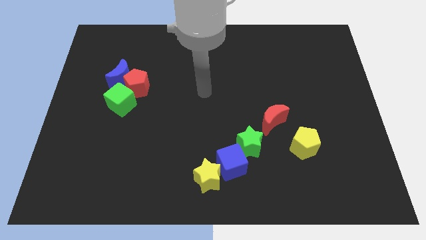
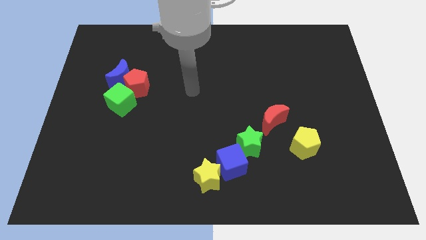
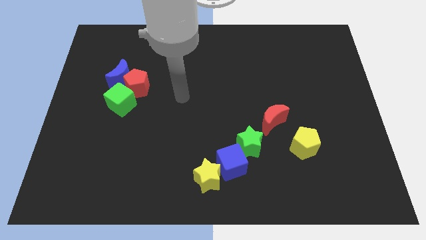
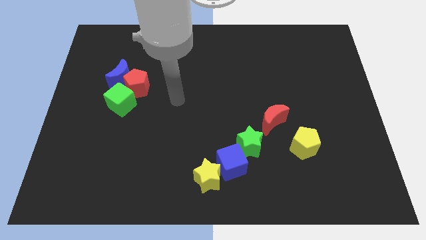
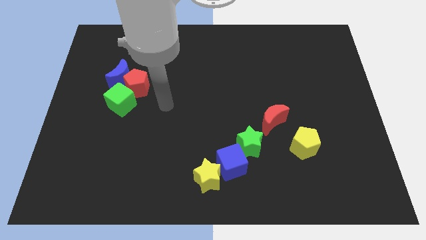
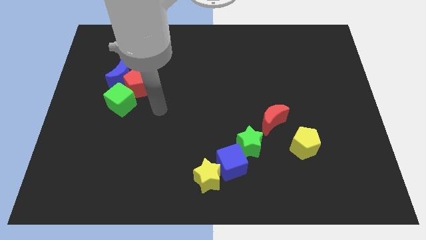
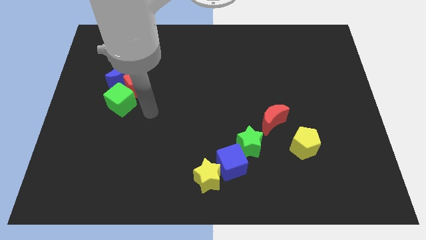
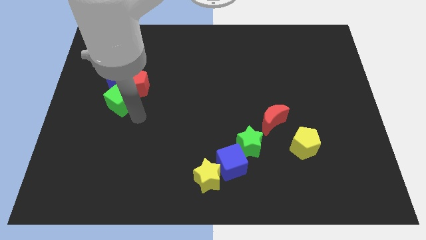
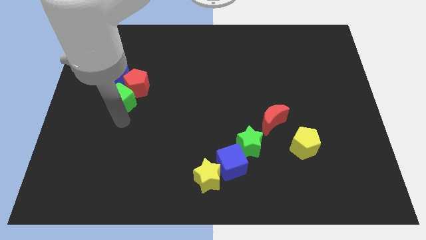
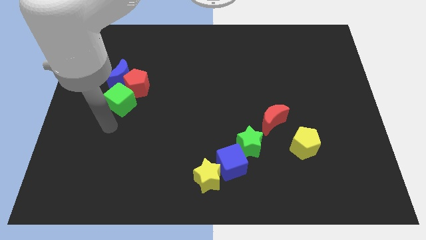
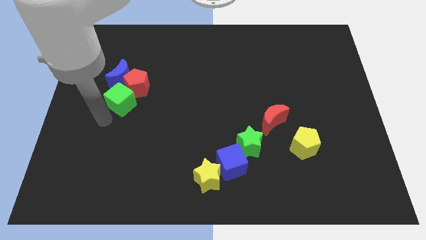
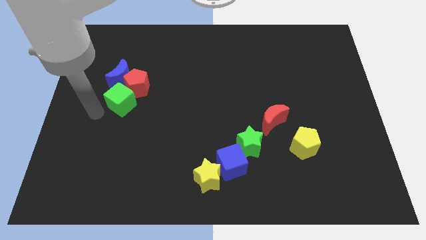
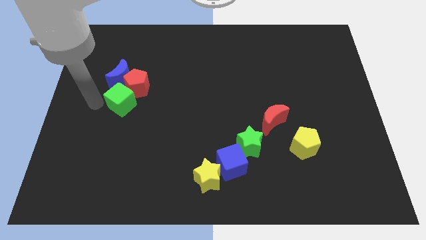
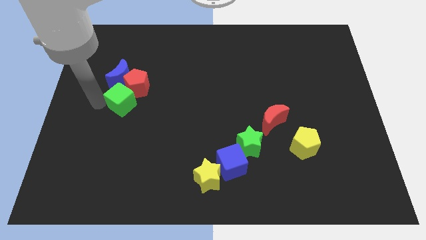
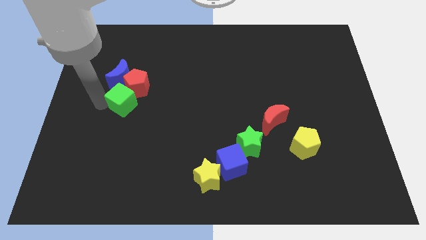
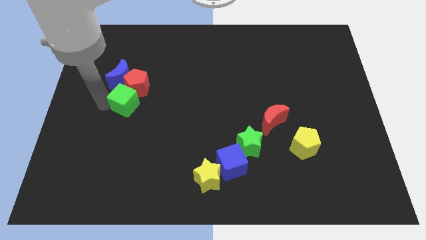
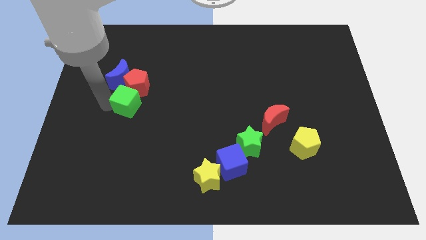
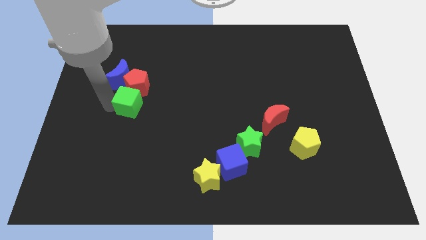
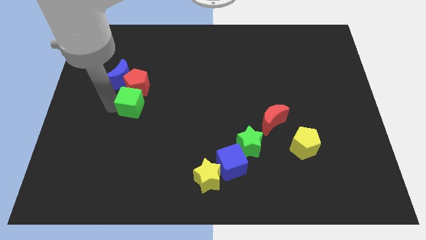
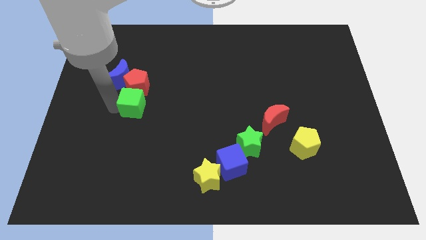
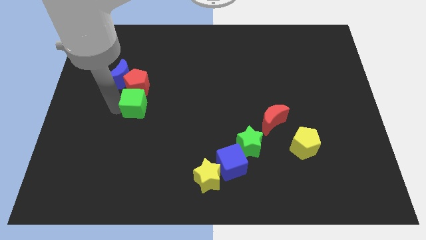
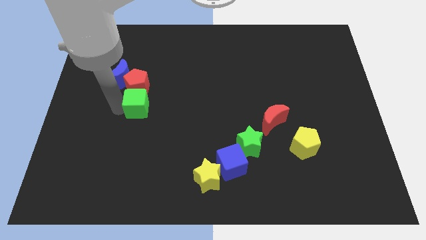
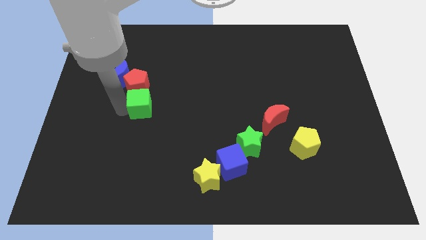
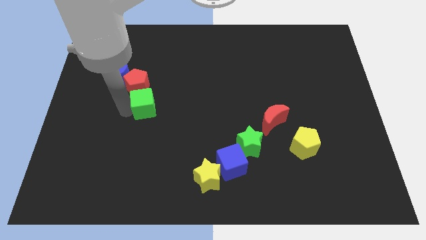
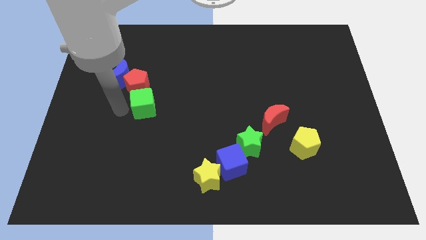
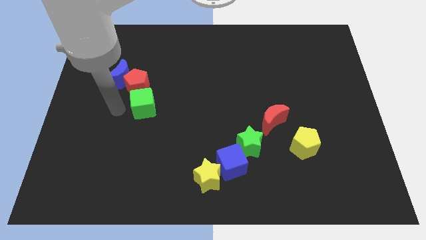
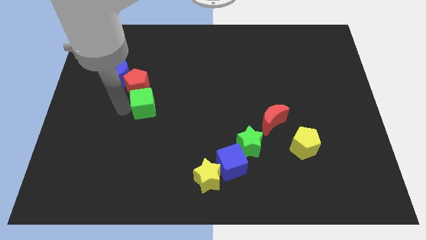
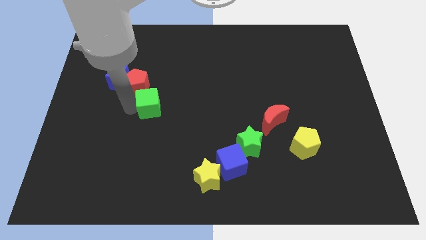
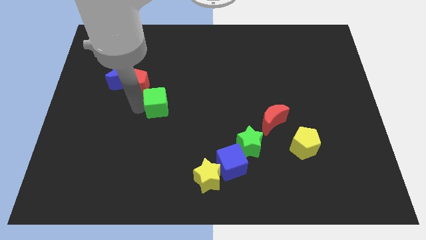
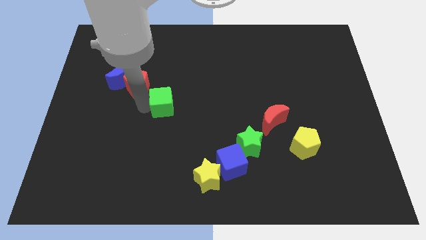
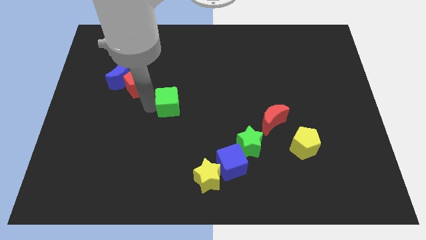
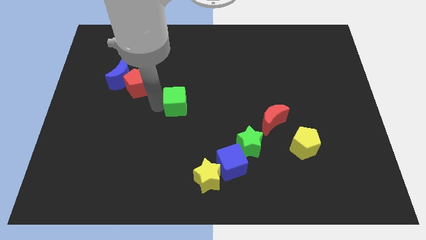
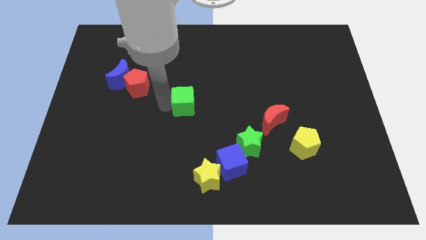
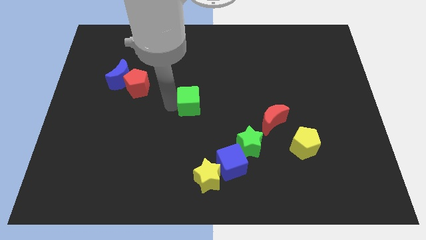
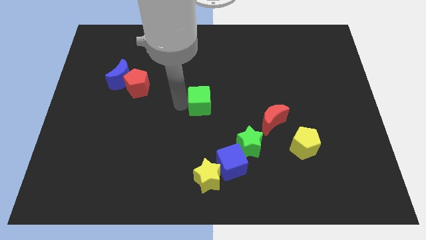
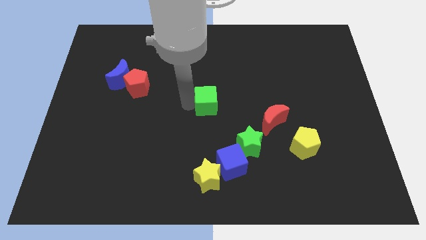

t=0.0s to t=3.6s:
slide the green cube right

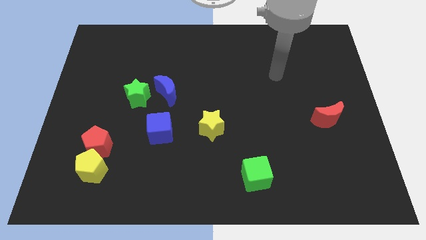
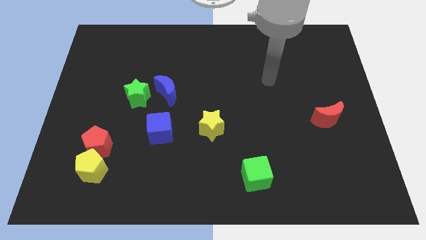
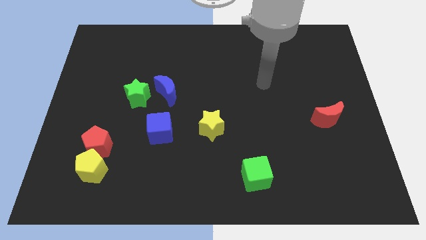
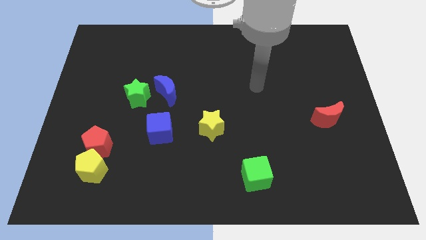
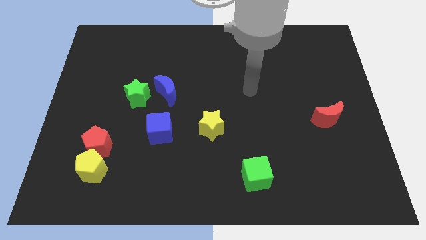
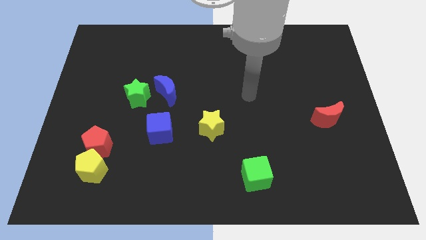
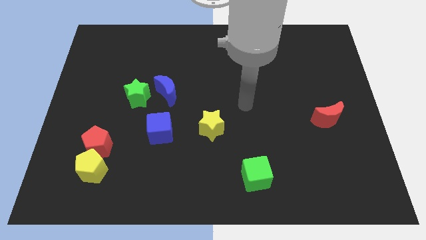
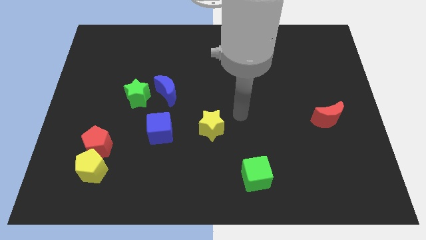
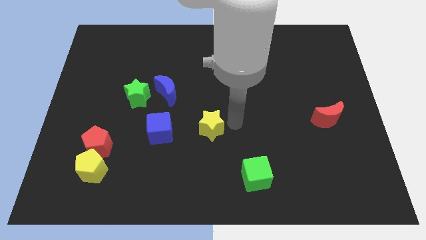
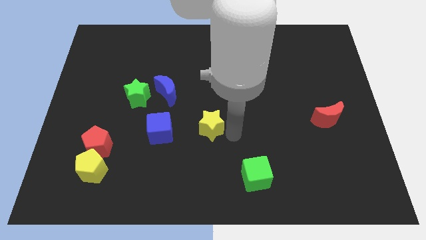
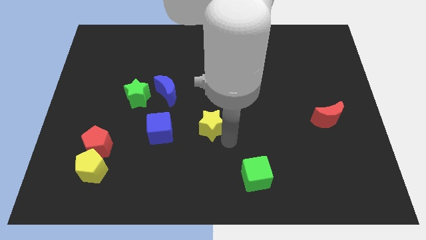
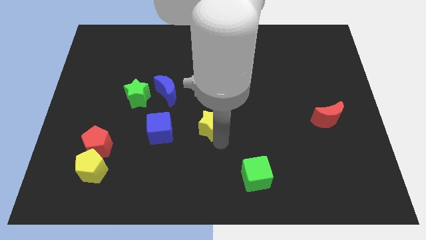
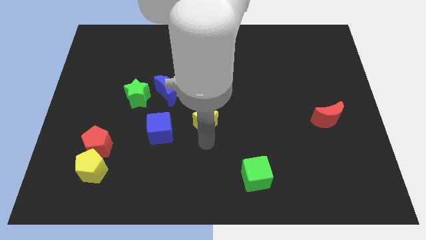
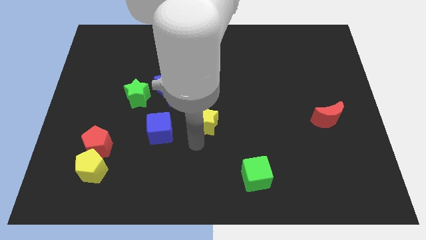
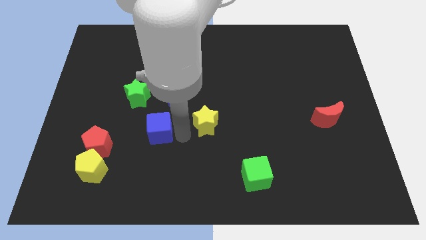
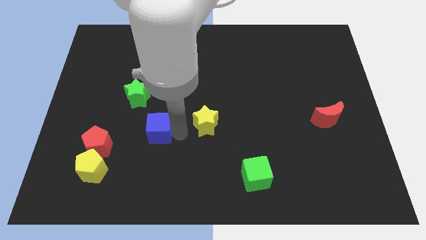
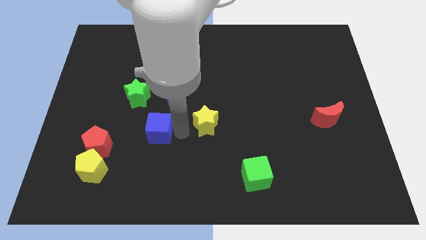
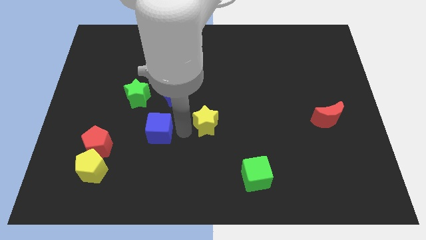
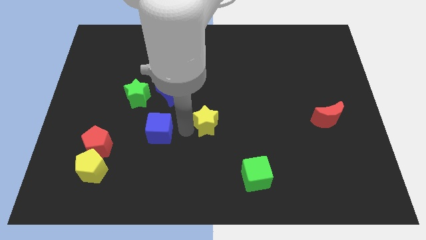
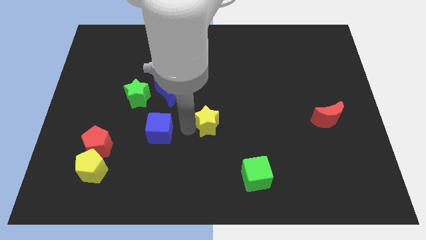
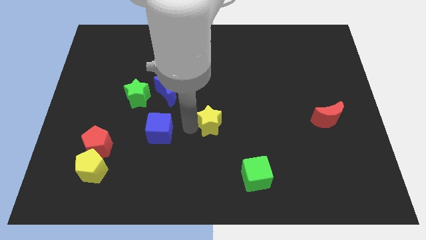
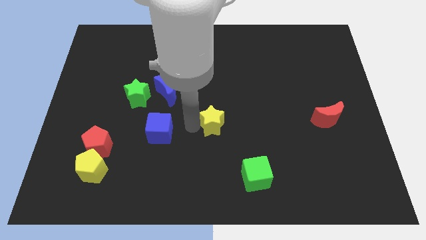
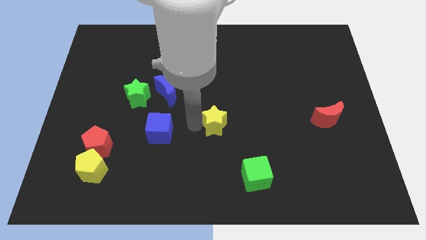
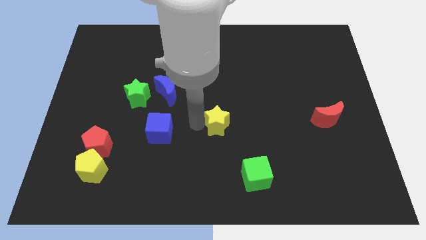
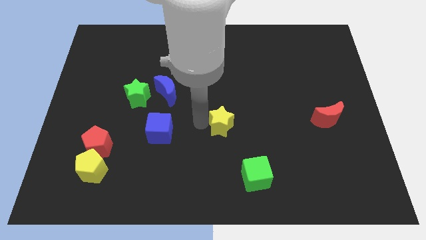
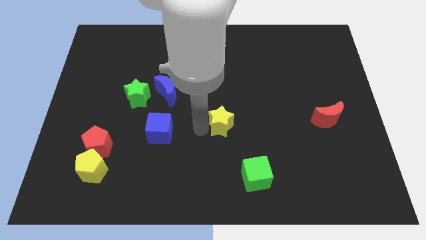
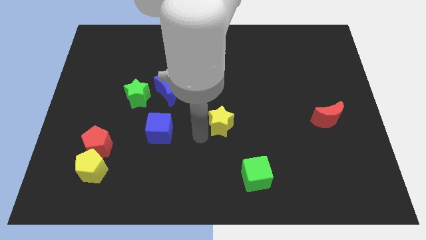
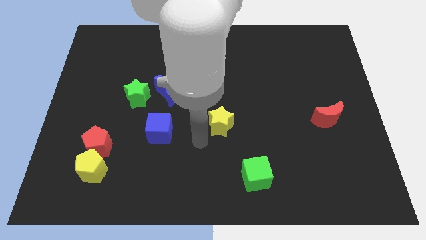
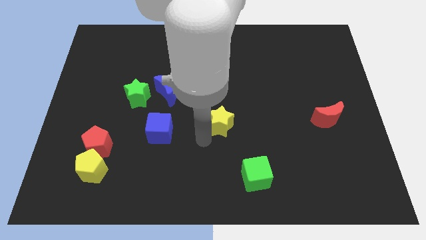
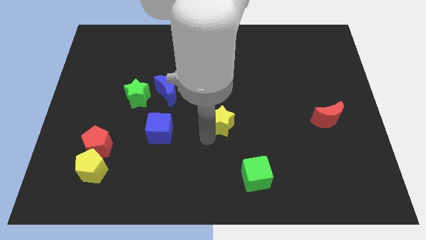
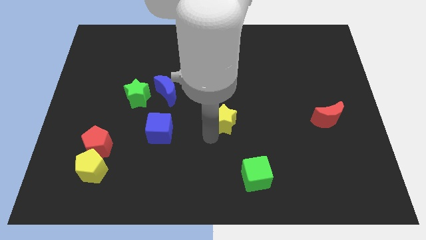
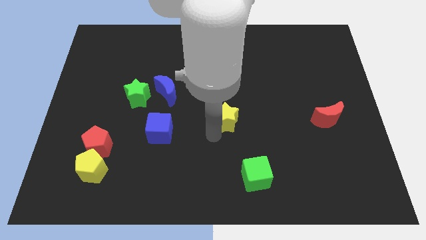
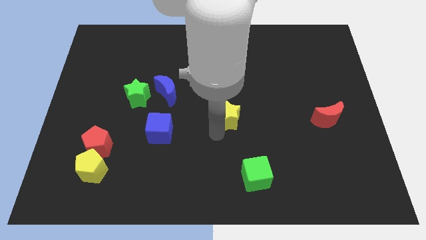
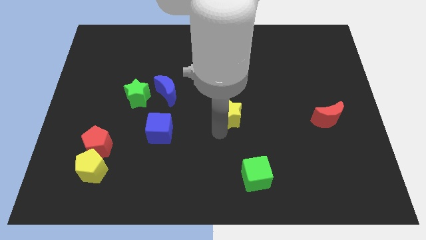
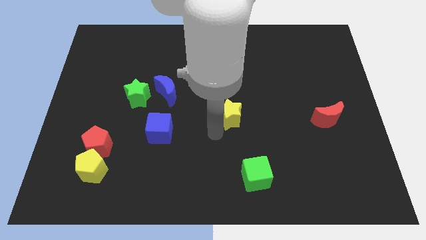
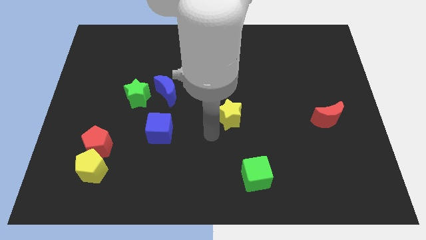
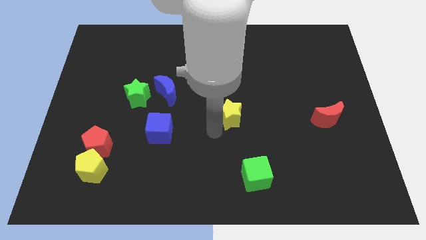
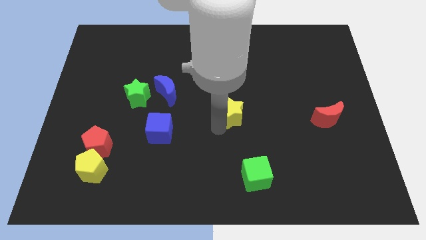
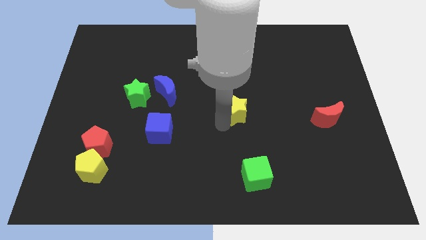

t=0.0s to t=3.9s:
slightly move the yellow star upwards and then right

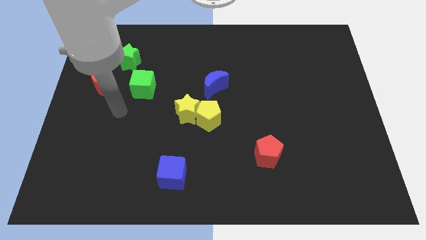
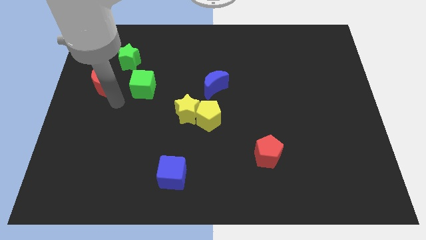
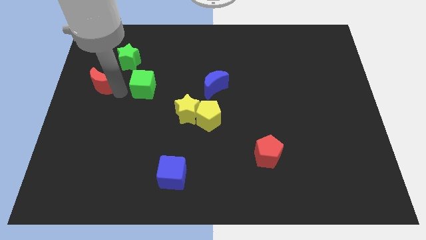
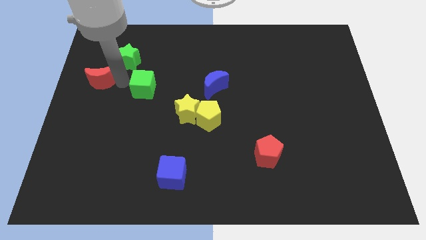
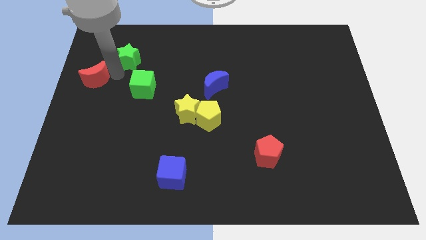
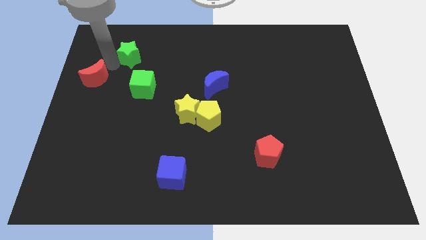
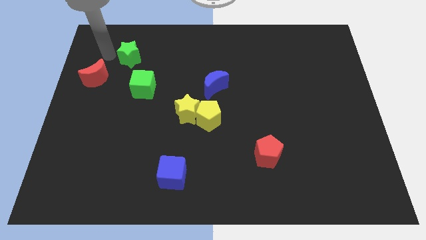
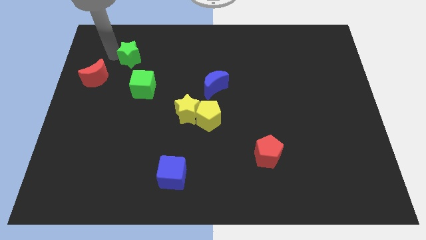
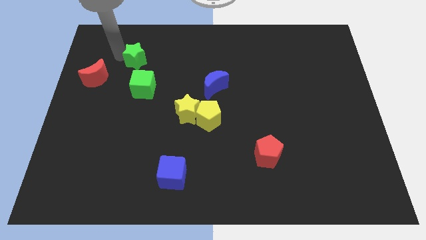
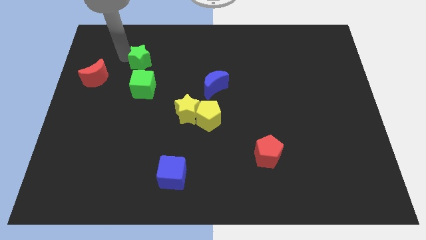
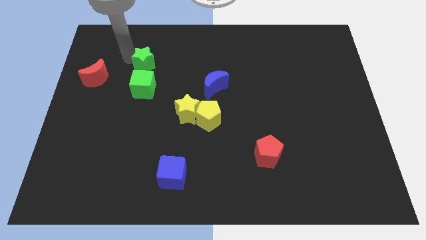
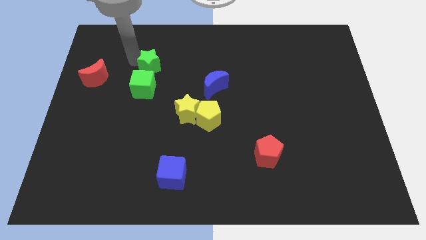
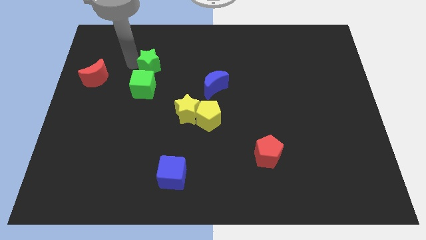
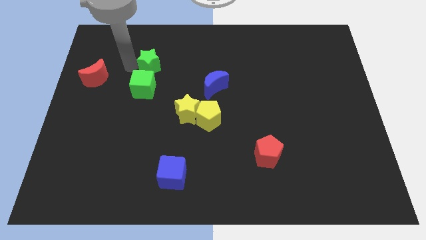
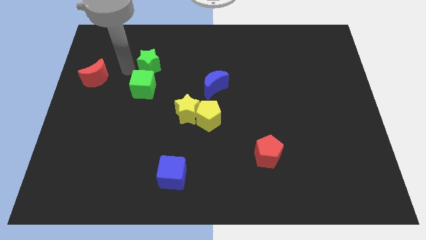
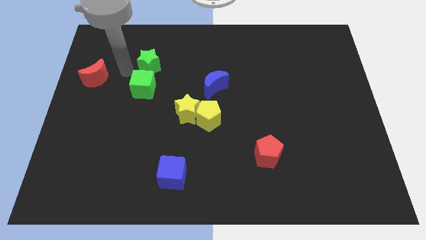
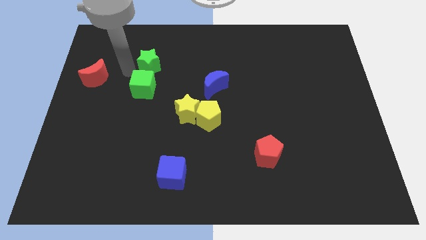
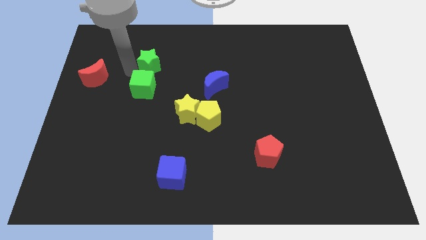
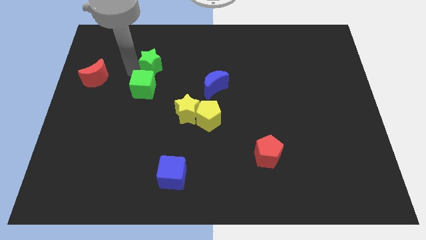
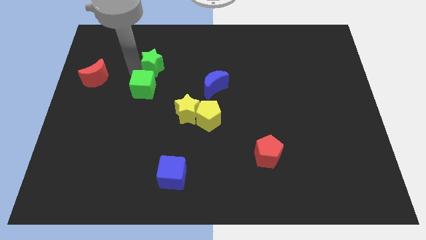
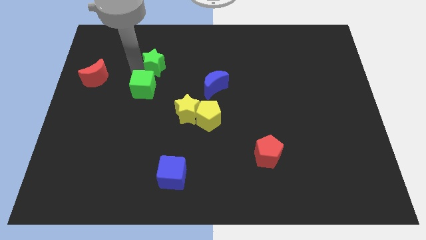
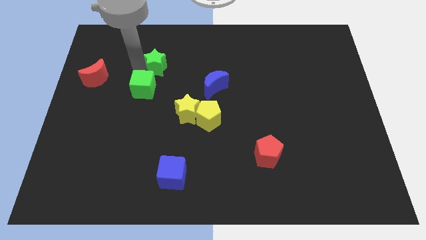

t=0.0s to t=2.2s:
slide the green star somewhat to the right
